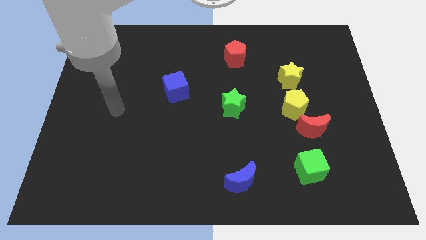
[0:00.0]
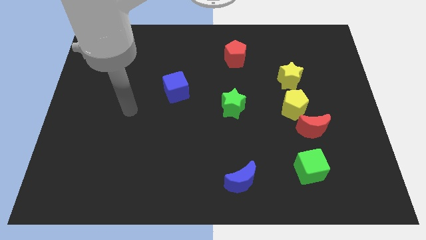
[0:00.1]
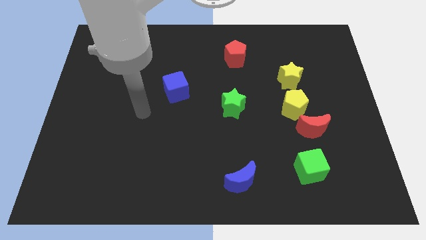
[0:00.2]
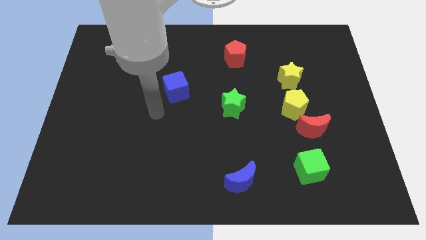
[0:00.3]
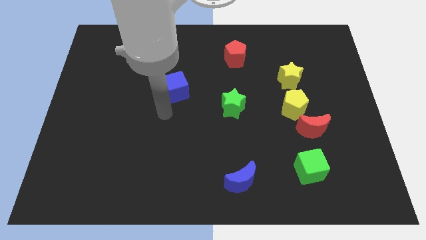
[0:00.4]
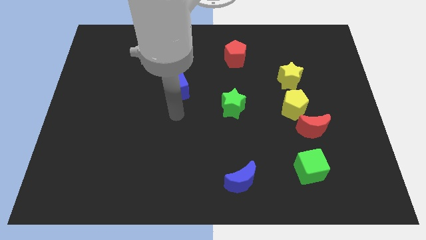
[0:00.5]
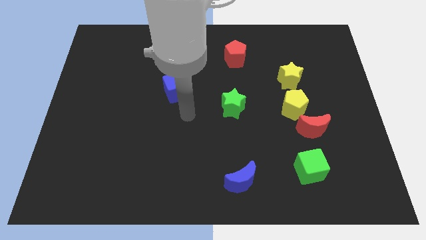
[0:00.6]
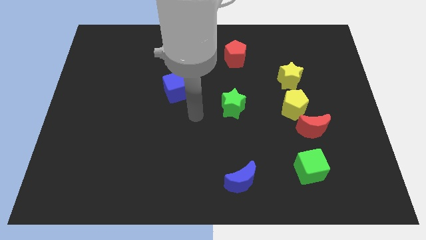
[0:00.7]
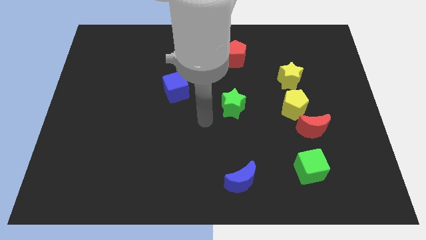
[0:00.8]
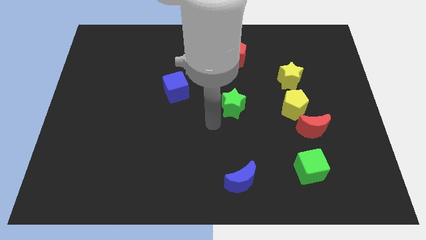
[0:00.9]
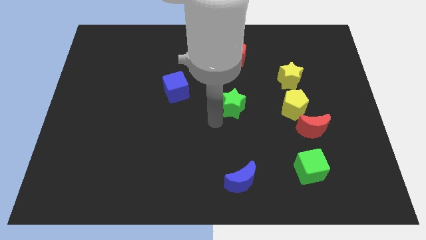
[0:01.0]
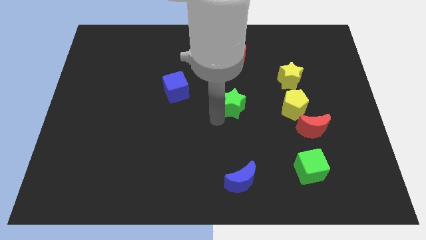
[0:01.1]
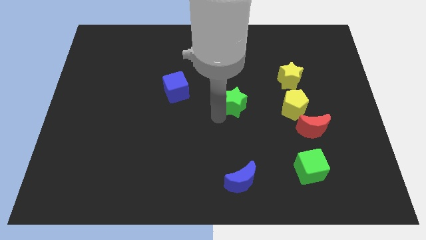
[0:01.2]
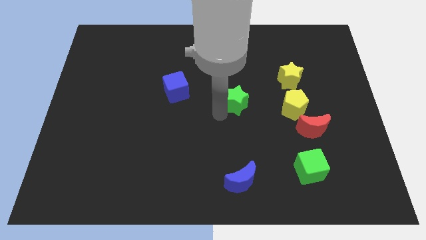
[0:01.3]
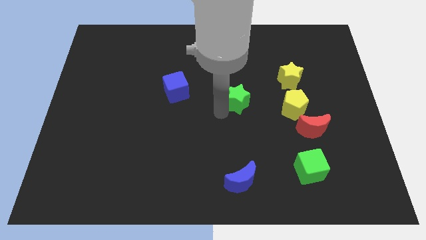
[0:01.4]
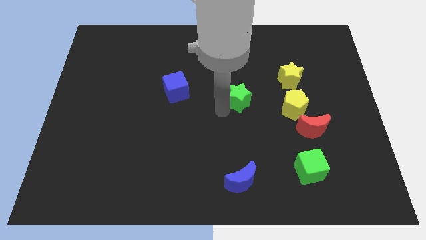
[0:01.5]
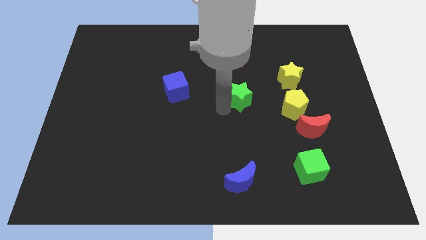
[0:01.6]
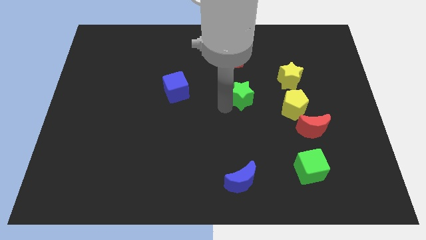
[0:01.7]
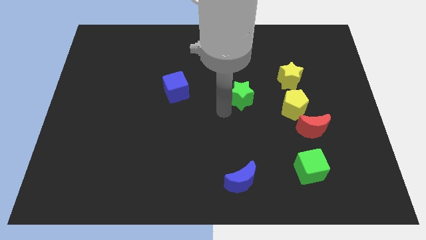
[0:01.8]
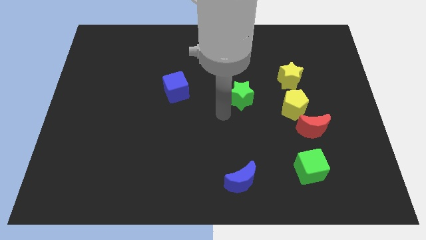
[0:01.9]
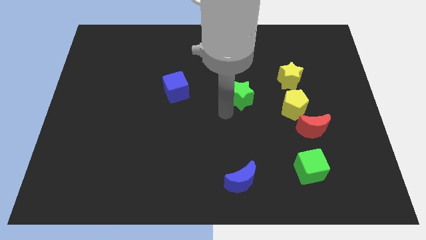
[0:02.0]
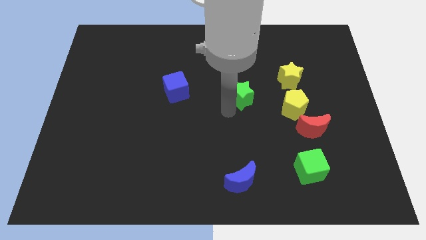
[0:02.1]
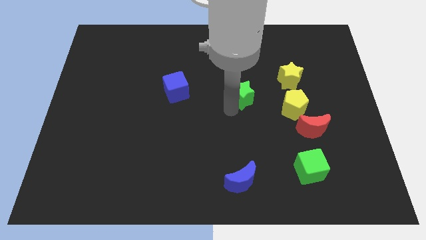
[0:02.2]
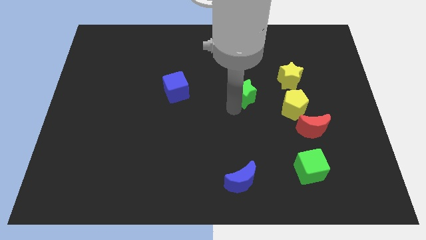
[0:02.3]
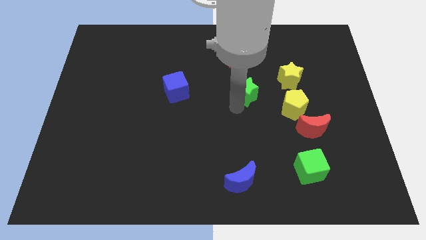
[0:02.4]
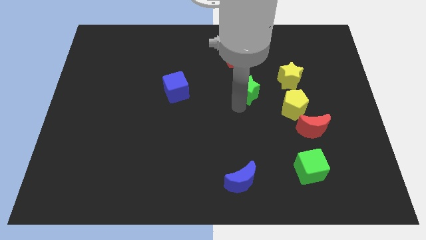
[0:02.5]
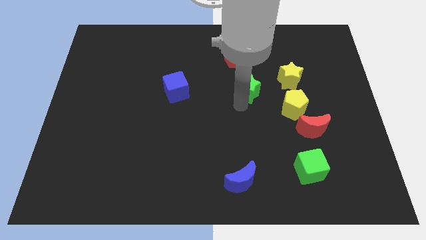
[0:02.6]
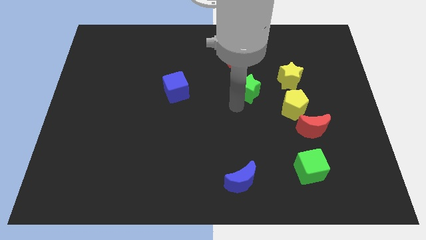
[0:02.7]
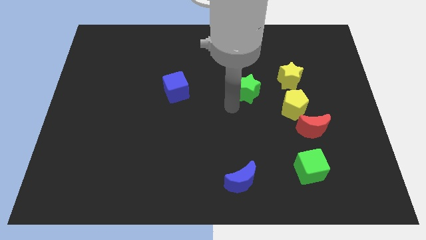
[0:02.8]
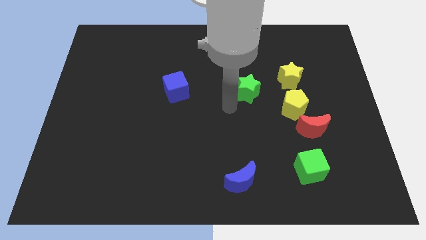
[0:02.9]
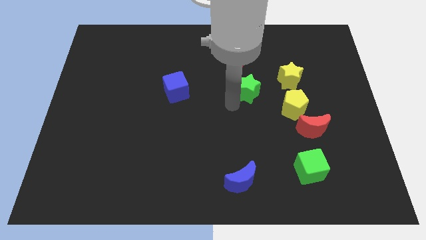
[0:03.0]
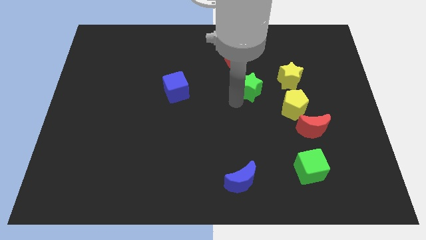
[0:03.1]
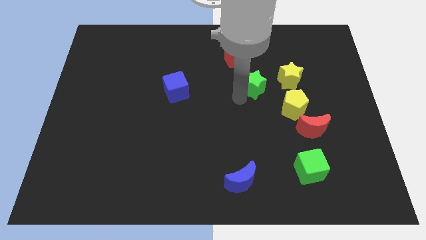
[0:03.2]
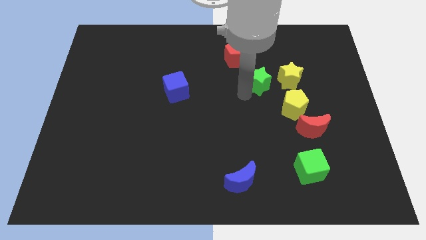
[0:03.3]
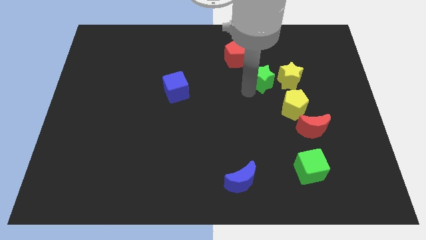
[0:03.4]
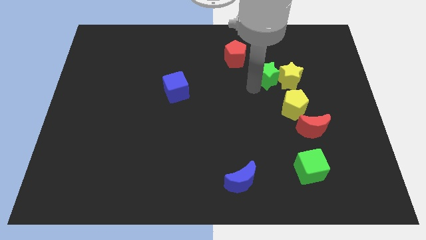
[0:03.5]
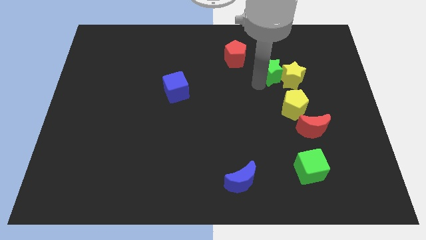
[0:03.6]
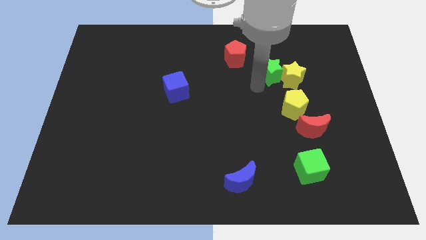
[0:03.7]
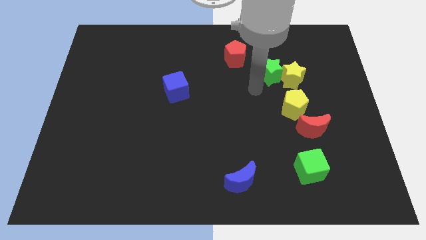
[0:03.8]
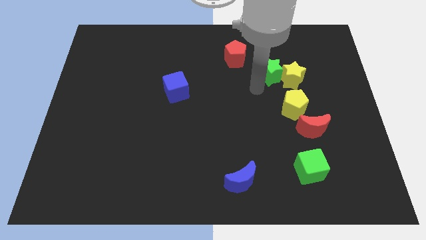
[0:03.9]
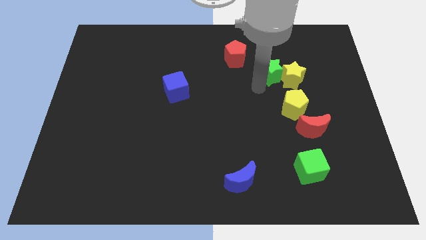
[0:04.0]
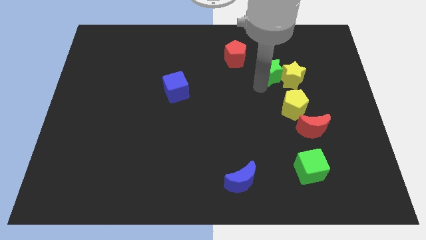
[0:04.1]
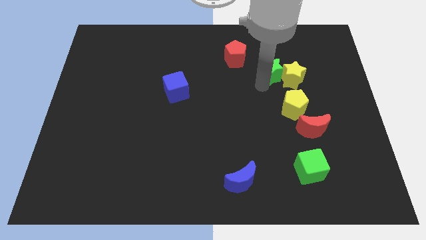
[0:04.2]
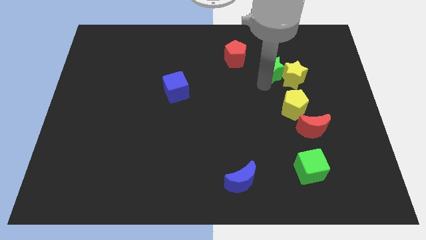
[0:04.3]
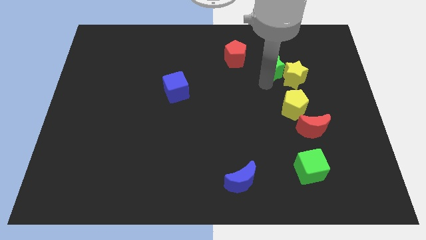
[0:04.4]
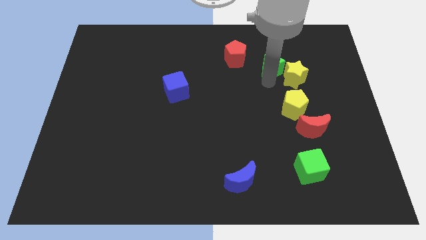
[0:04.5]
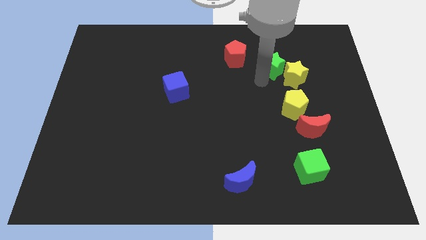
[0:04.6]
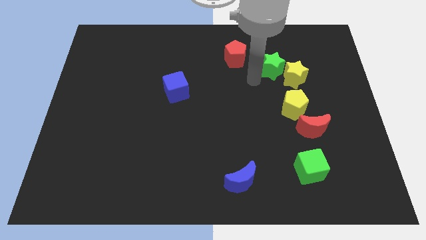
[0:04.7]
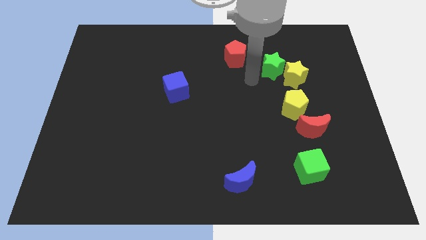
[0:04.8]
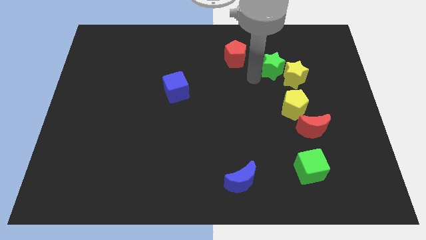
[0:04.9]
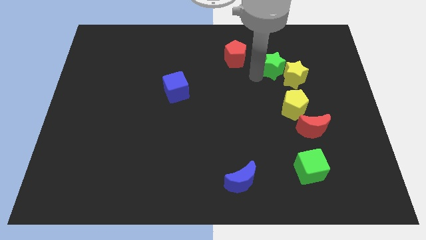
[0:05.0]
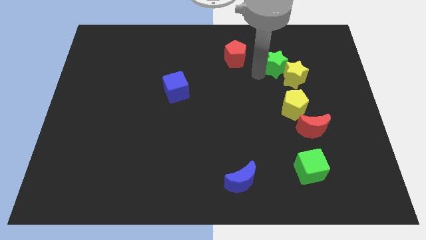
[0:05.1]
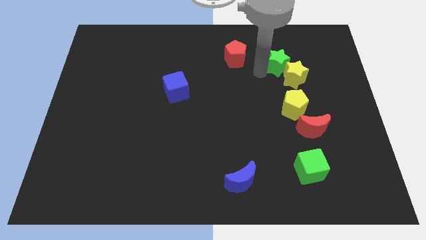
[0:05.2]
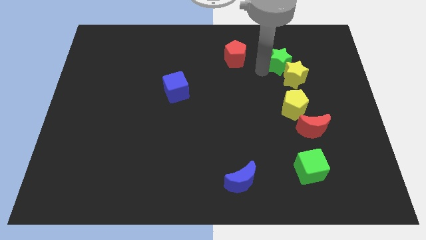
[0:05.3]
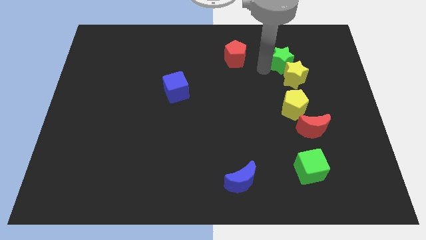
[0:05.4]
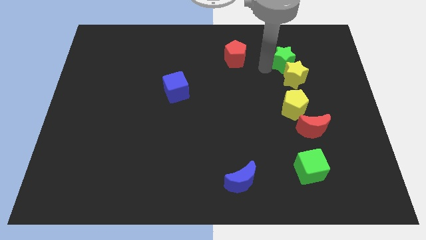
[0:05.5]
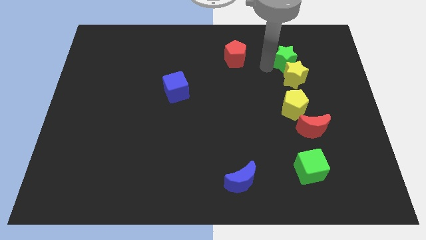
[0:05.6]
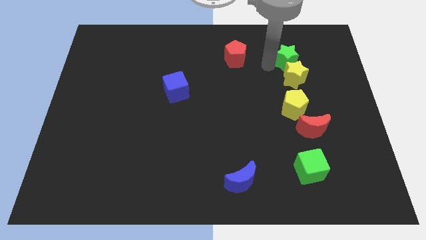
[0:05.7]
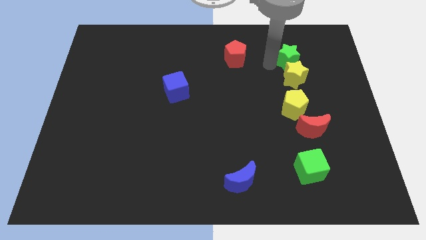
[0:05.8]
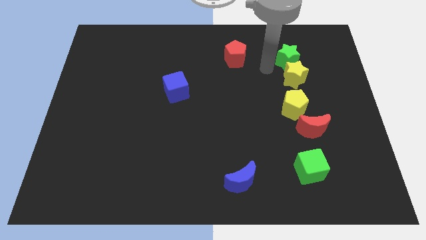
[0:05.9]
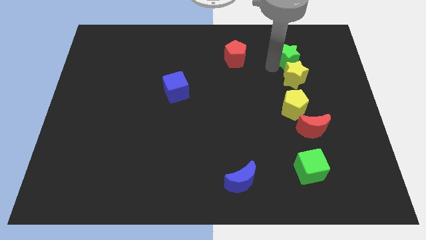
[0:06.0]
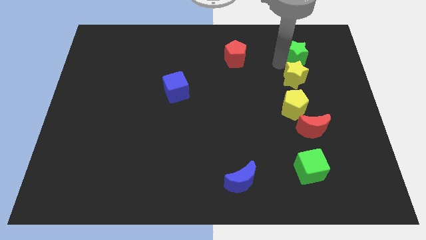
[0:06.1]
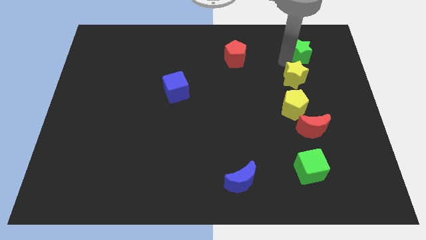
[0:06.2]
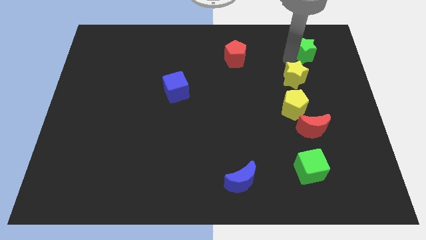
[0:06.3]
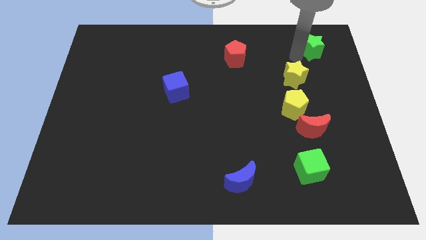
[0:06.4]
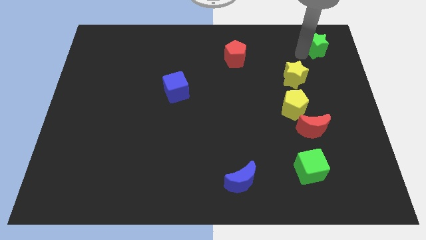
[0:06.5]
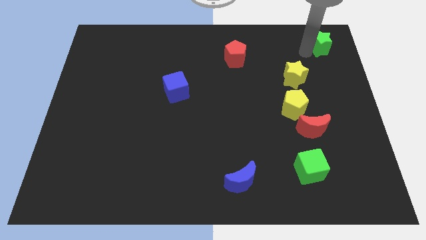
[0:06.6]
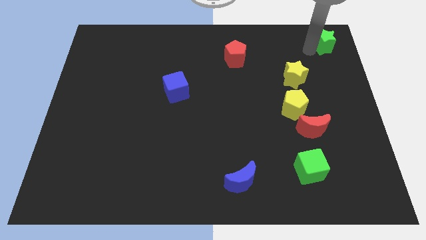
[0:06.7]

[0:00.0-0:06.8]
slide the green star to the top right of the board

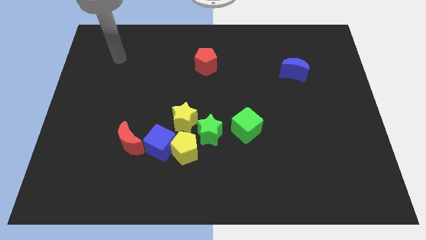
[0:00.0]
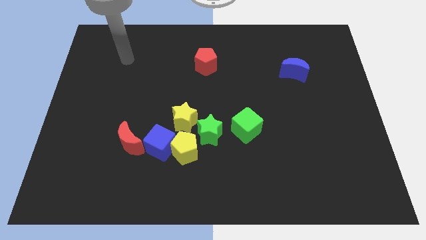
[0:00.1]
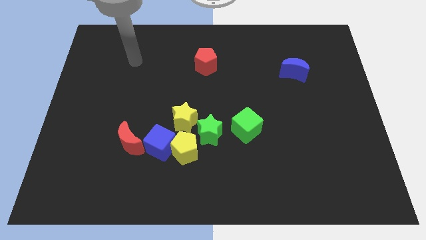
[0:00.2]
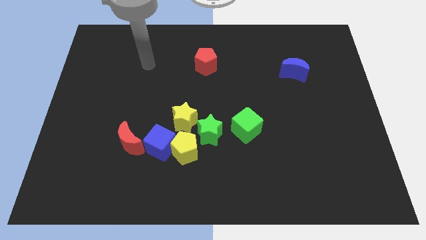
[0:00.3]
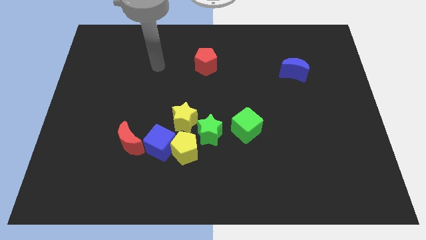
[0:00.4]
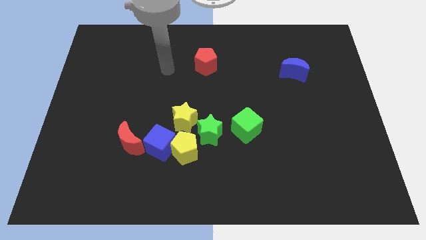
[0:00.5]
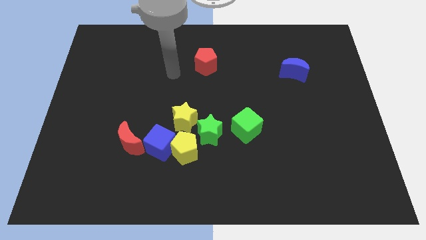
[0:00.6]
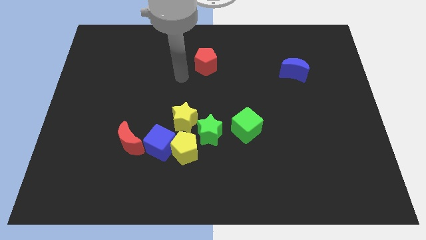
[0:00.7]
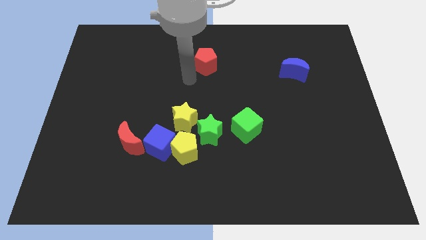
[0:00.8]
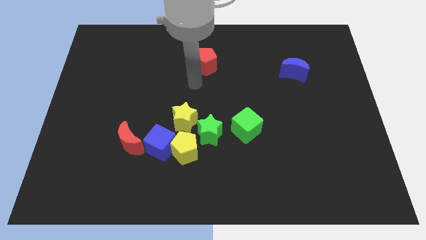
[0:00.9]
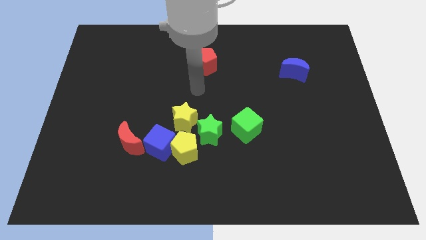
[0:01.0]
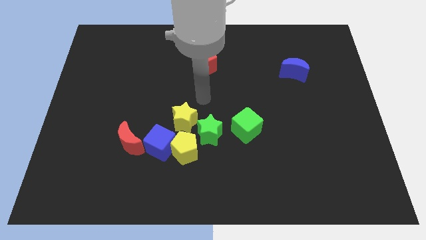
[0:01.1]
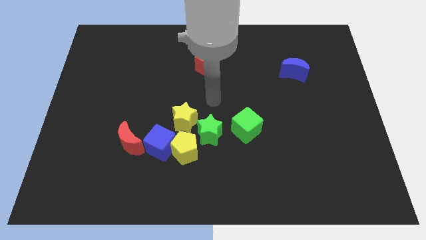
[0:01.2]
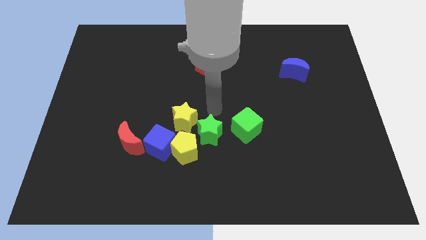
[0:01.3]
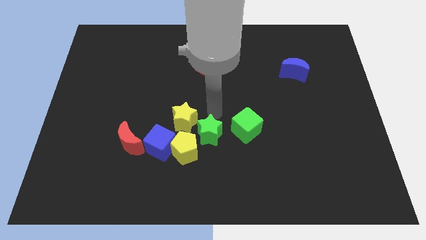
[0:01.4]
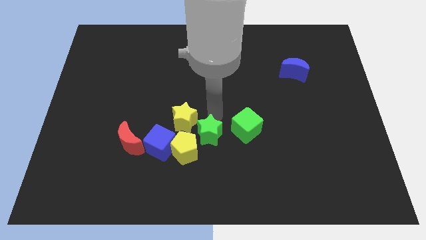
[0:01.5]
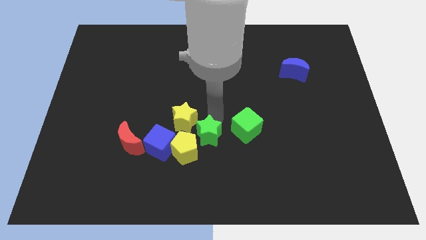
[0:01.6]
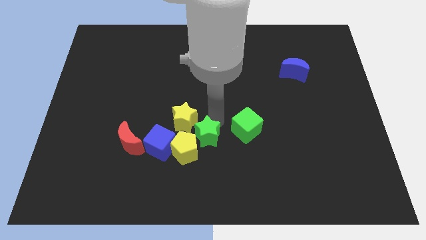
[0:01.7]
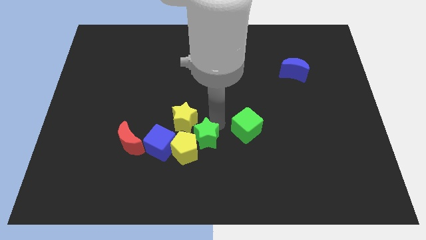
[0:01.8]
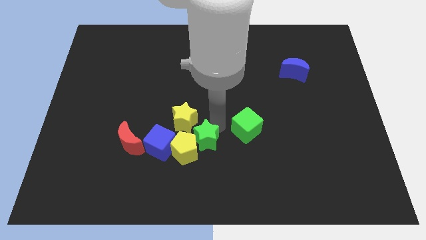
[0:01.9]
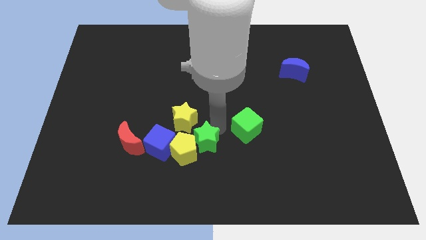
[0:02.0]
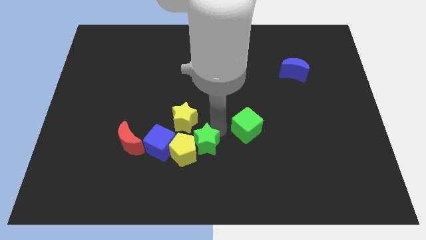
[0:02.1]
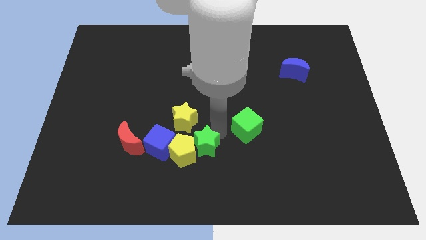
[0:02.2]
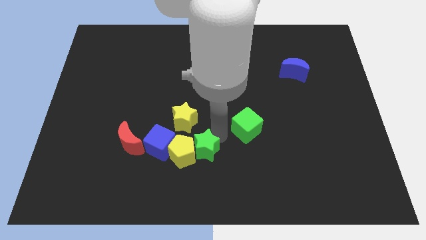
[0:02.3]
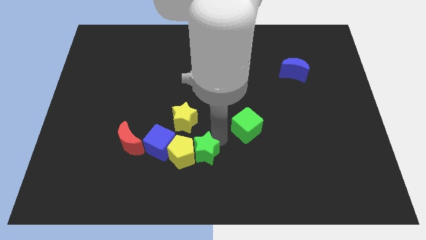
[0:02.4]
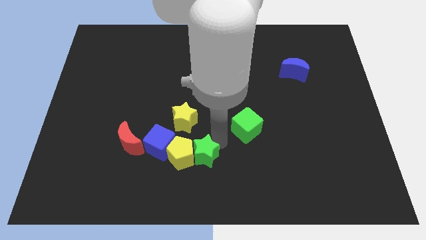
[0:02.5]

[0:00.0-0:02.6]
slide the green star to the bottom
